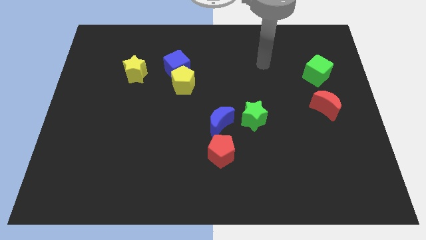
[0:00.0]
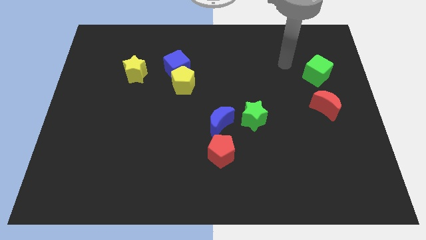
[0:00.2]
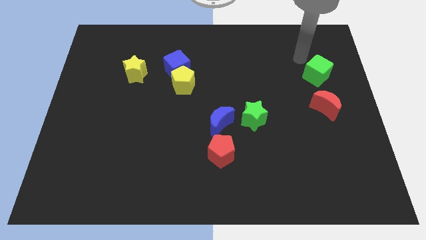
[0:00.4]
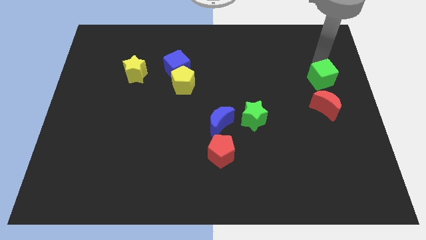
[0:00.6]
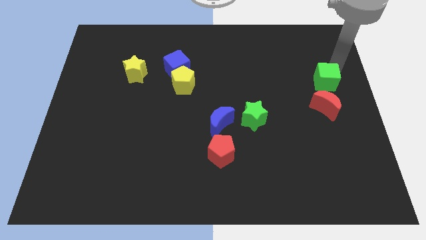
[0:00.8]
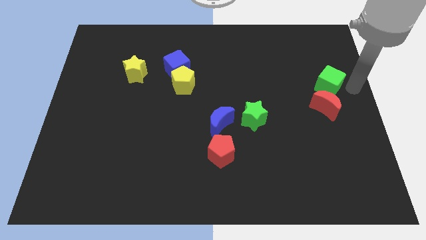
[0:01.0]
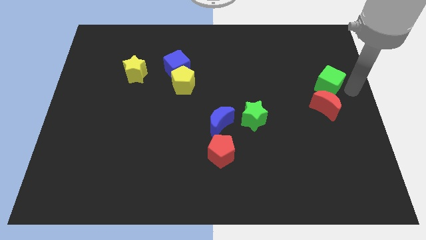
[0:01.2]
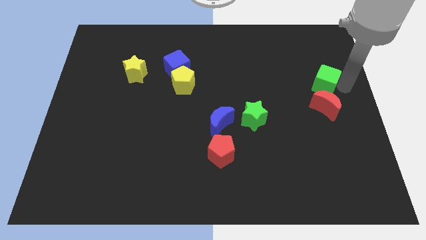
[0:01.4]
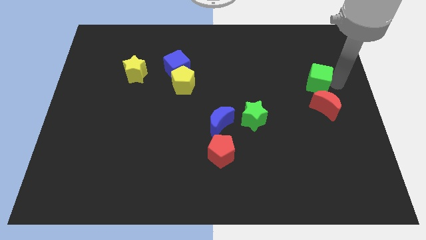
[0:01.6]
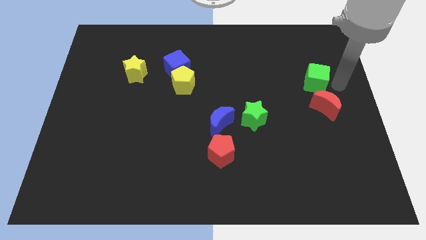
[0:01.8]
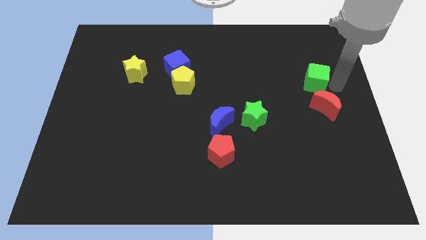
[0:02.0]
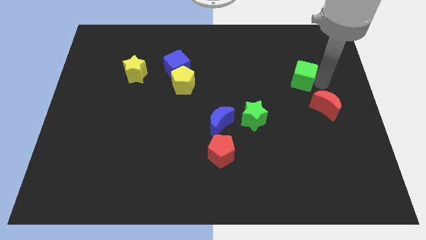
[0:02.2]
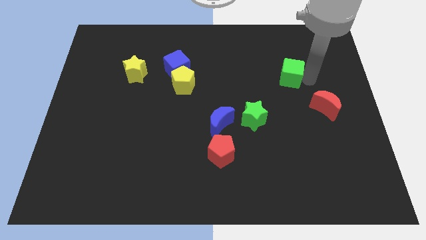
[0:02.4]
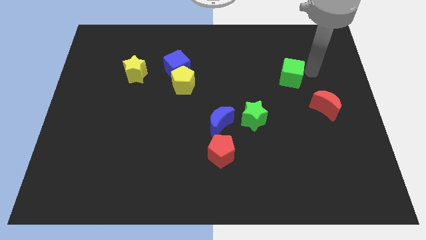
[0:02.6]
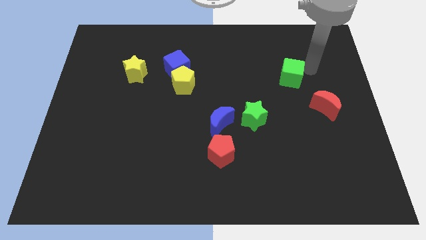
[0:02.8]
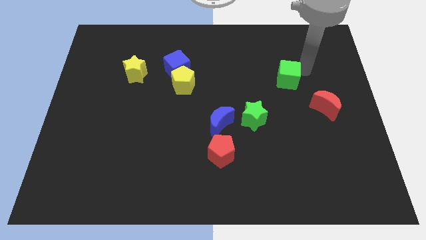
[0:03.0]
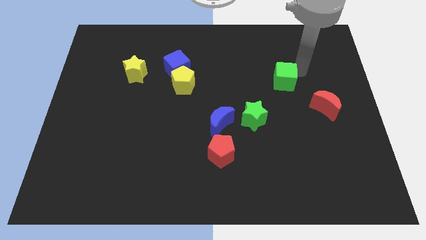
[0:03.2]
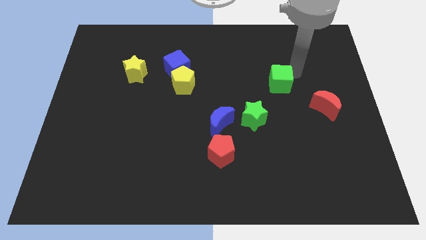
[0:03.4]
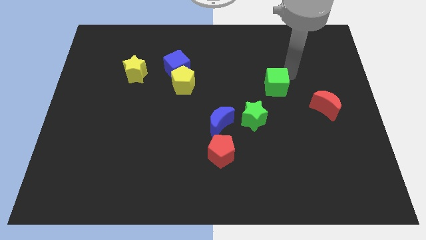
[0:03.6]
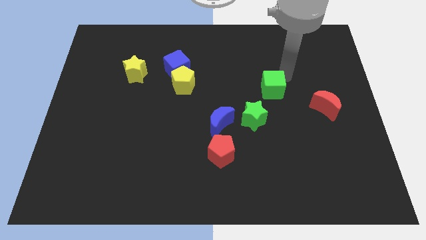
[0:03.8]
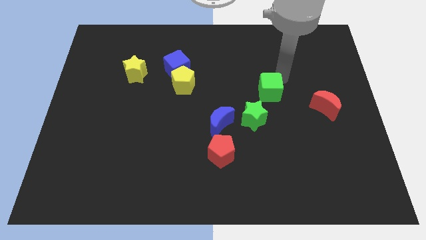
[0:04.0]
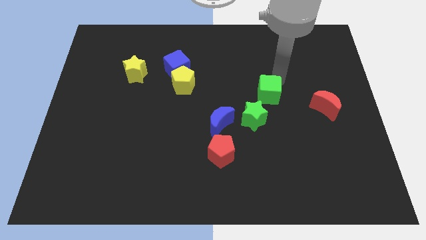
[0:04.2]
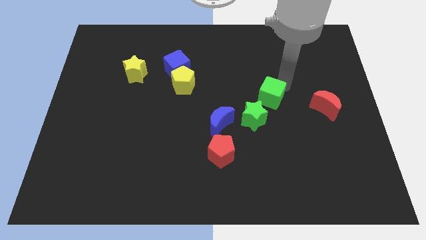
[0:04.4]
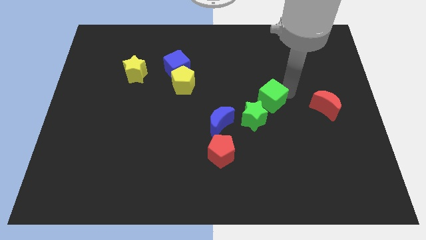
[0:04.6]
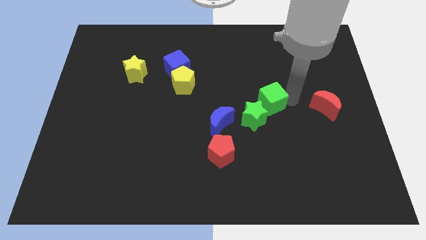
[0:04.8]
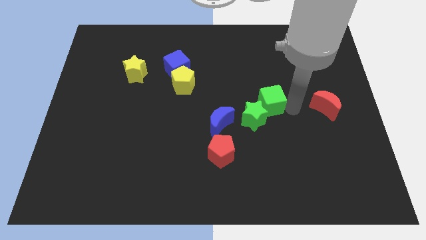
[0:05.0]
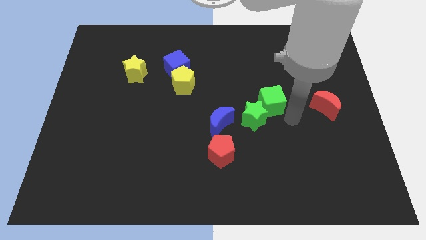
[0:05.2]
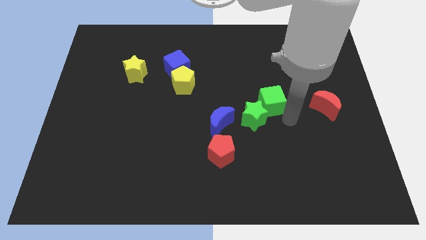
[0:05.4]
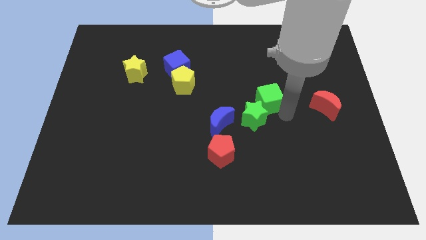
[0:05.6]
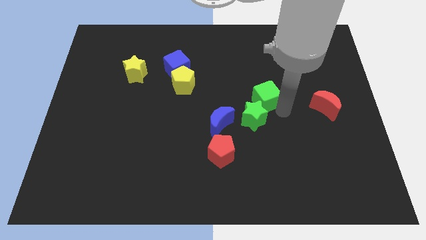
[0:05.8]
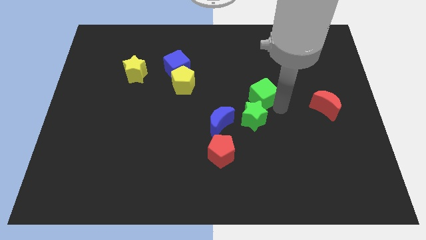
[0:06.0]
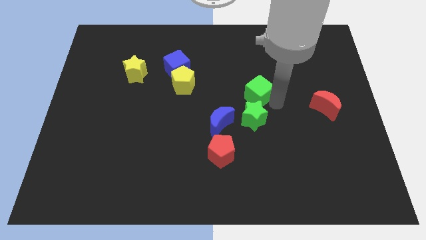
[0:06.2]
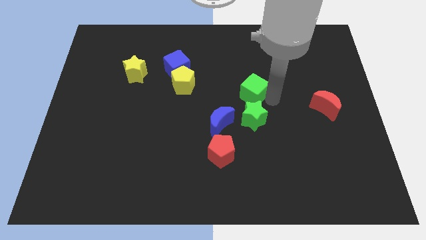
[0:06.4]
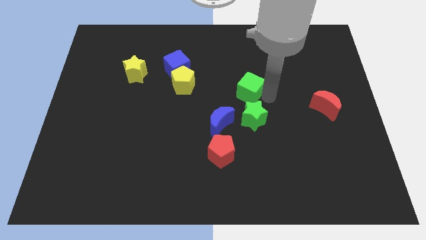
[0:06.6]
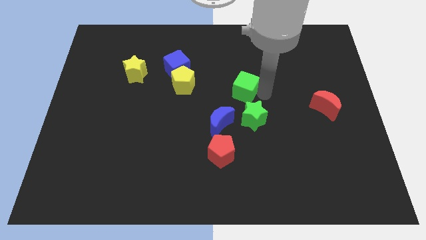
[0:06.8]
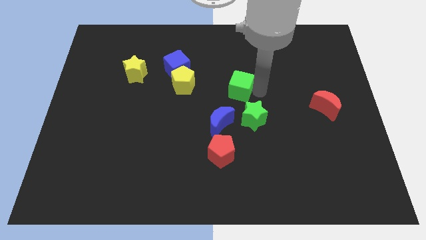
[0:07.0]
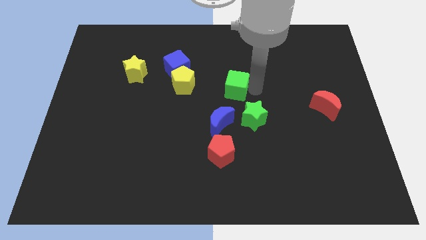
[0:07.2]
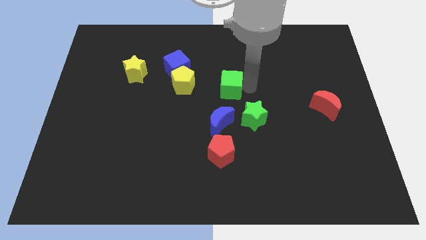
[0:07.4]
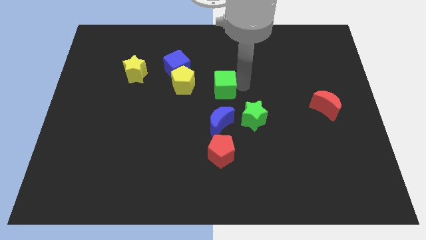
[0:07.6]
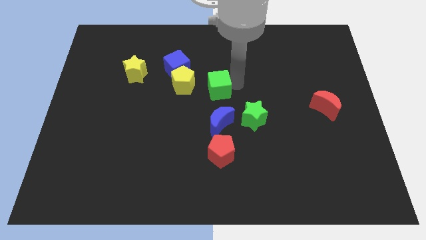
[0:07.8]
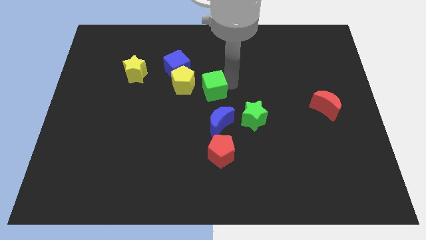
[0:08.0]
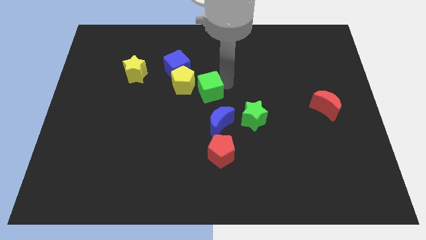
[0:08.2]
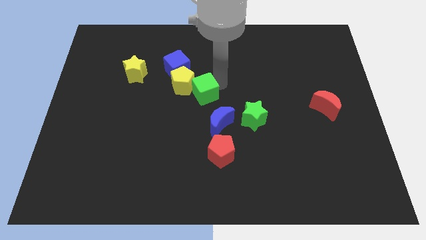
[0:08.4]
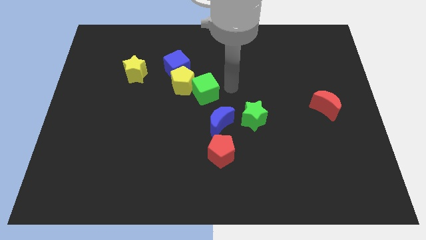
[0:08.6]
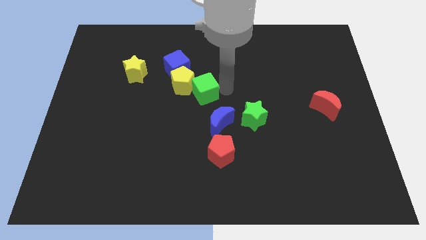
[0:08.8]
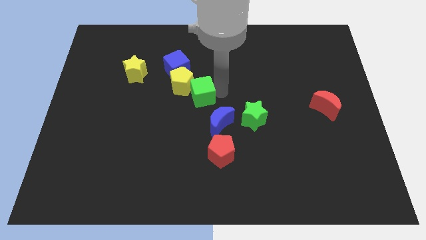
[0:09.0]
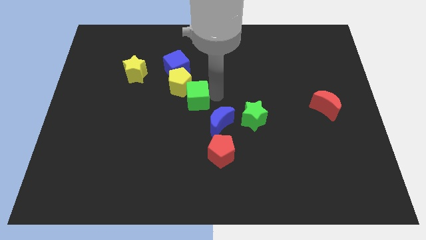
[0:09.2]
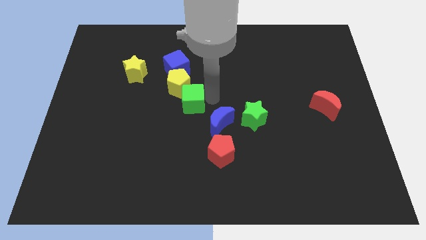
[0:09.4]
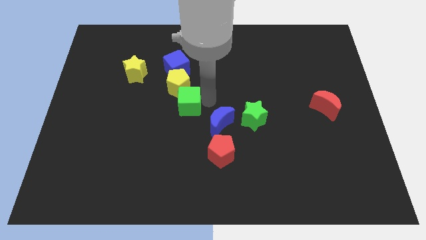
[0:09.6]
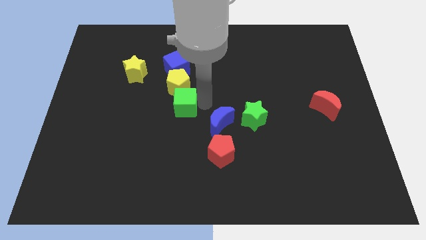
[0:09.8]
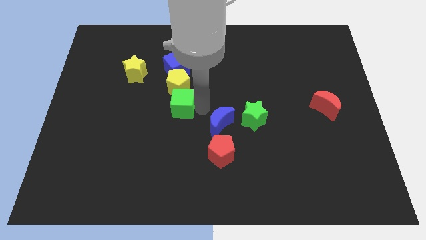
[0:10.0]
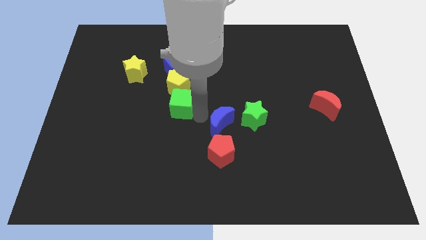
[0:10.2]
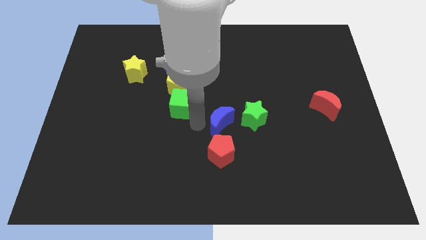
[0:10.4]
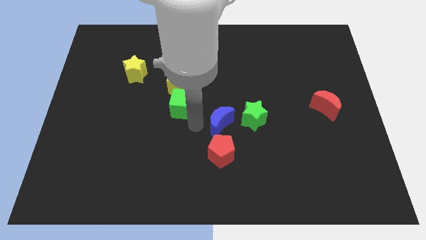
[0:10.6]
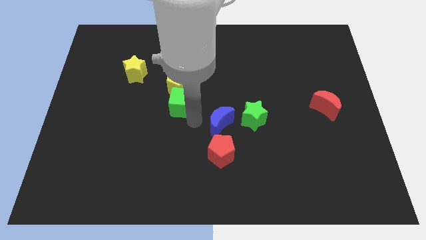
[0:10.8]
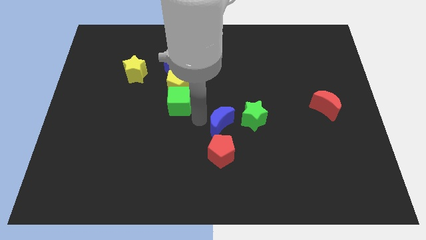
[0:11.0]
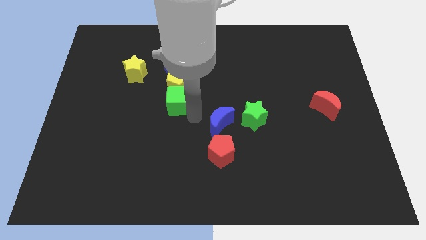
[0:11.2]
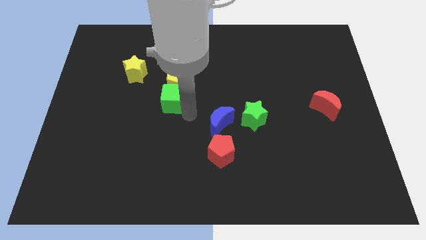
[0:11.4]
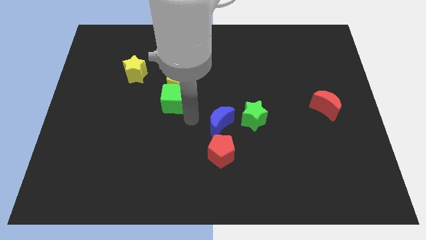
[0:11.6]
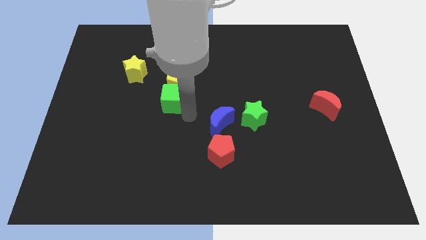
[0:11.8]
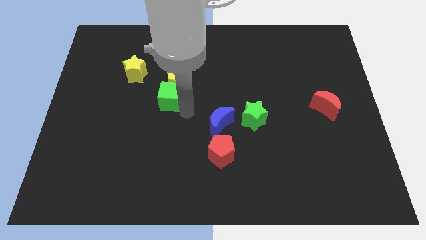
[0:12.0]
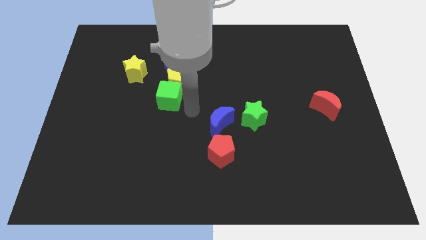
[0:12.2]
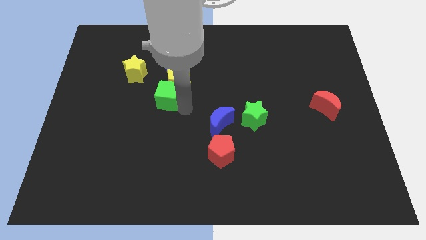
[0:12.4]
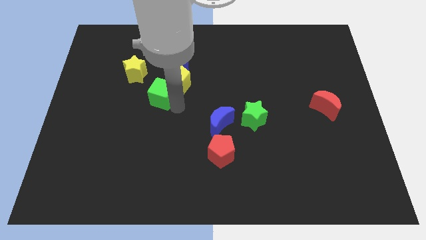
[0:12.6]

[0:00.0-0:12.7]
push the green cube to the left side of the yellow pentagon
